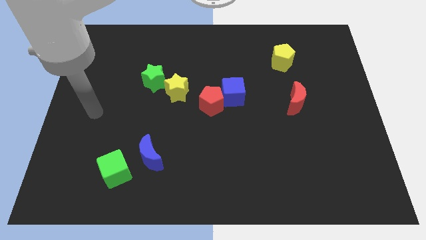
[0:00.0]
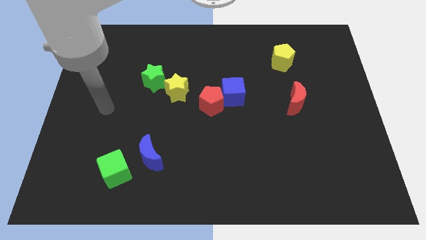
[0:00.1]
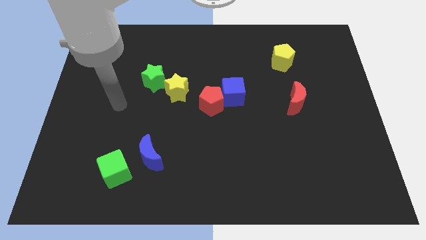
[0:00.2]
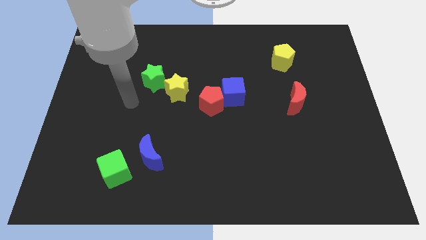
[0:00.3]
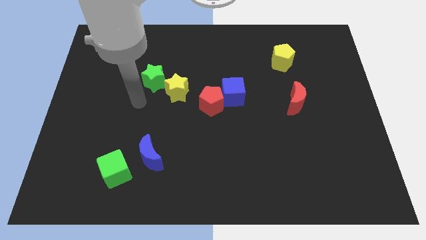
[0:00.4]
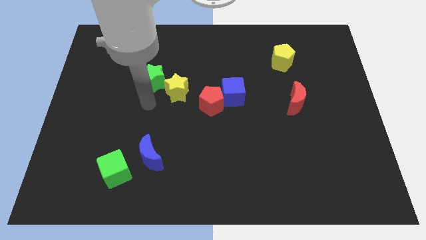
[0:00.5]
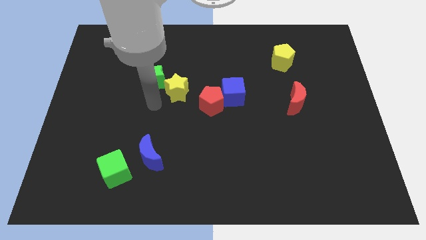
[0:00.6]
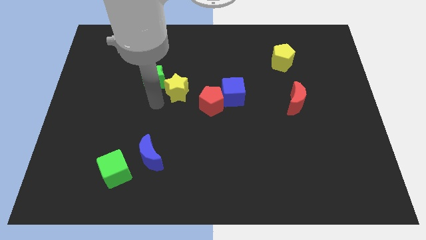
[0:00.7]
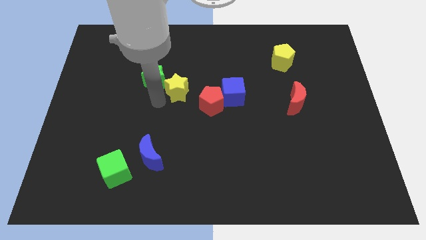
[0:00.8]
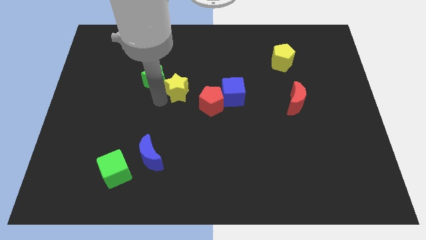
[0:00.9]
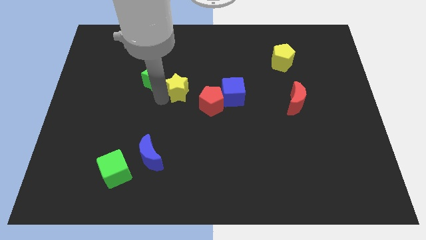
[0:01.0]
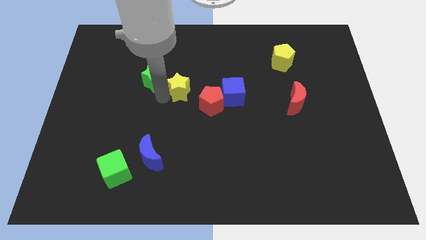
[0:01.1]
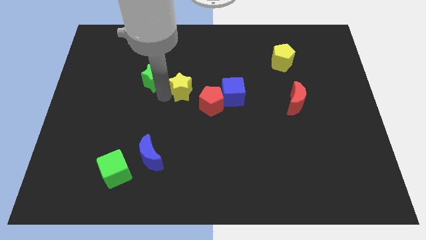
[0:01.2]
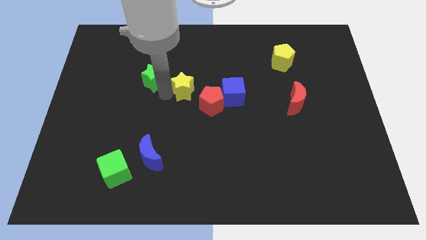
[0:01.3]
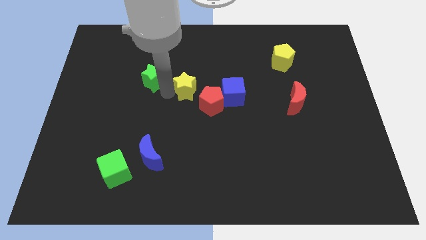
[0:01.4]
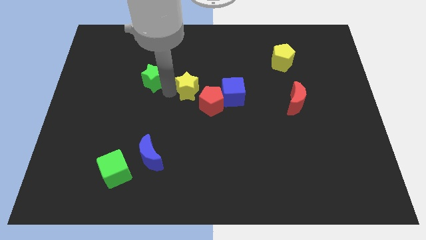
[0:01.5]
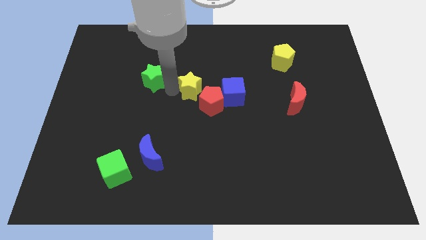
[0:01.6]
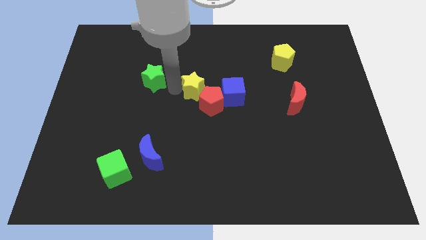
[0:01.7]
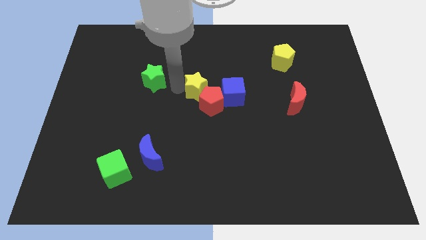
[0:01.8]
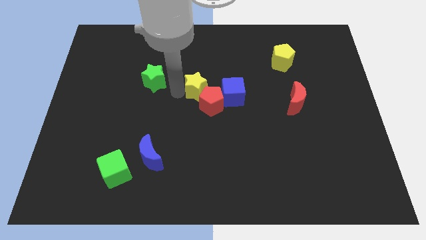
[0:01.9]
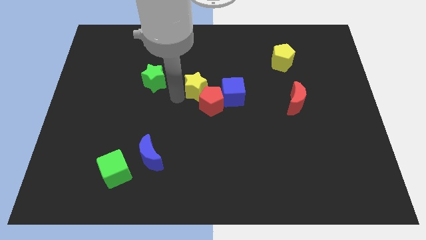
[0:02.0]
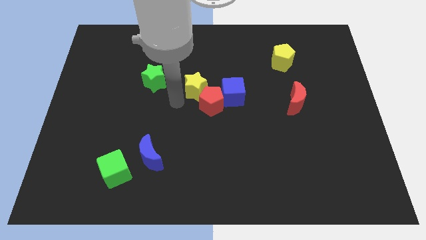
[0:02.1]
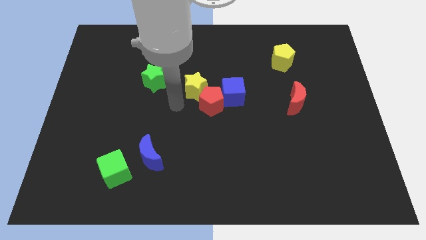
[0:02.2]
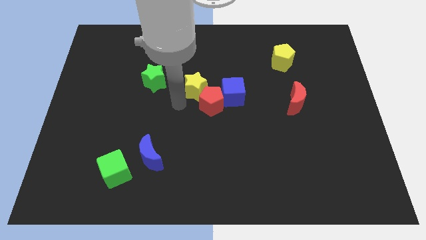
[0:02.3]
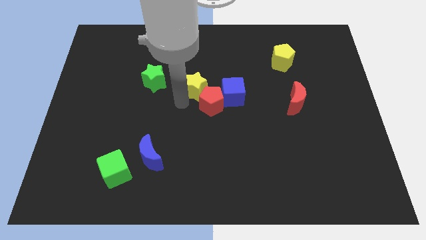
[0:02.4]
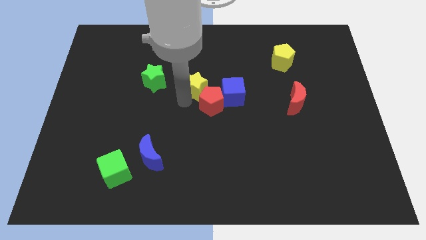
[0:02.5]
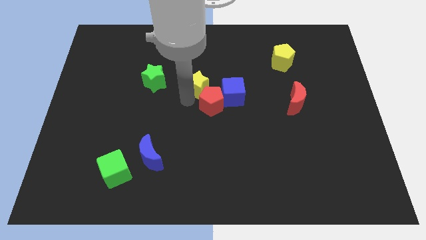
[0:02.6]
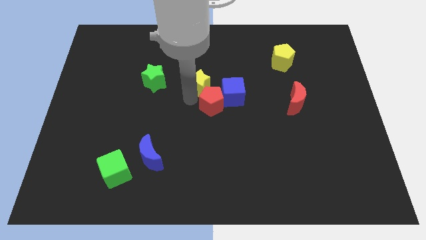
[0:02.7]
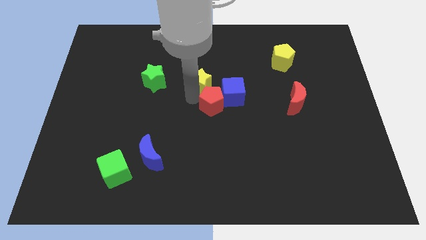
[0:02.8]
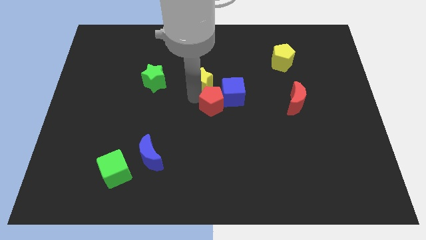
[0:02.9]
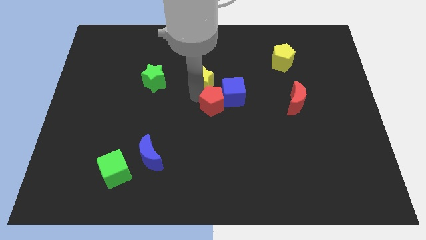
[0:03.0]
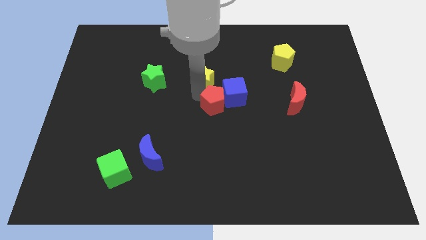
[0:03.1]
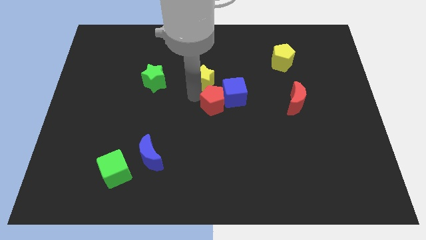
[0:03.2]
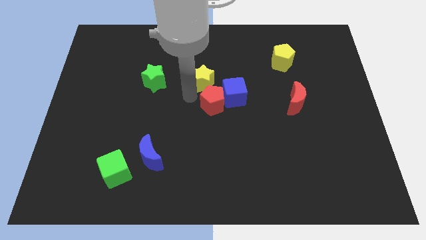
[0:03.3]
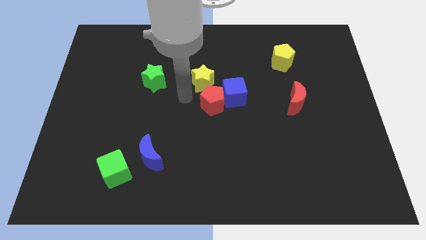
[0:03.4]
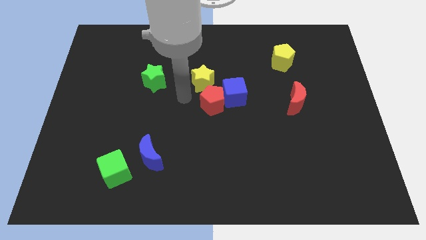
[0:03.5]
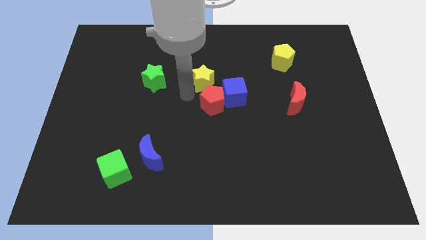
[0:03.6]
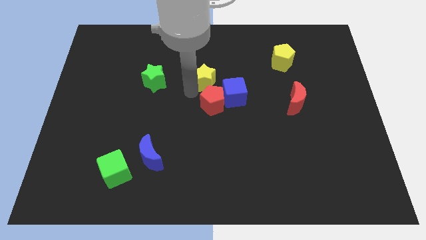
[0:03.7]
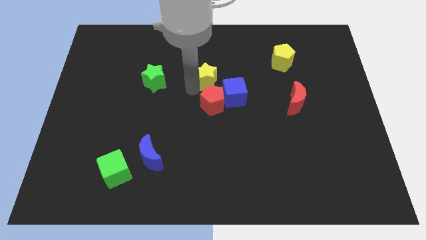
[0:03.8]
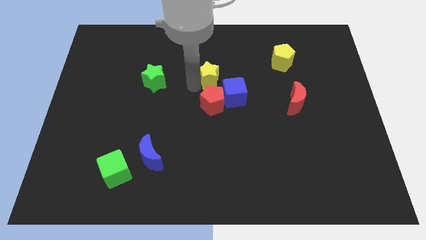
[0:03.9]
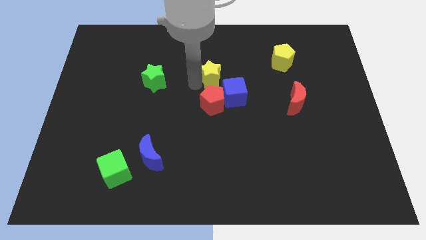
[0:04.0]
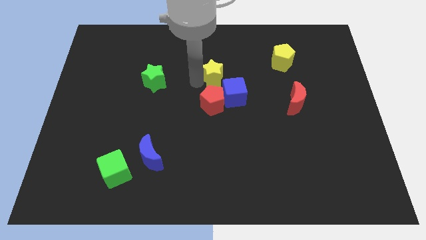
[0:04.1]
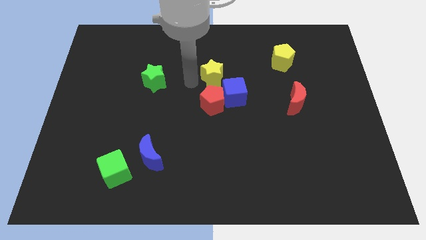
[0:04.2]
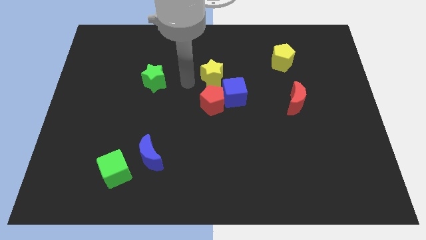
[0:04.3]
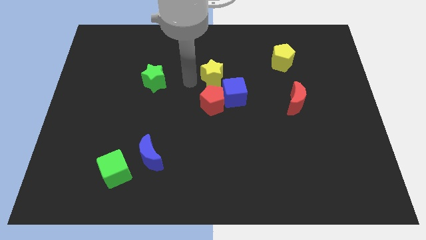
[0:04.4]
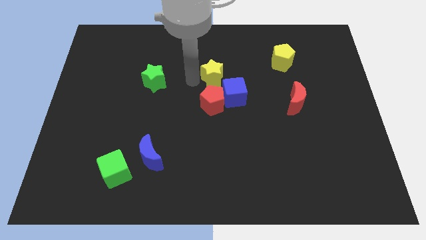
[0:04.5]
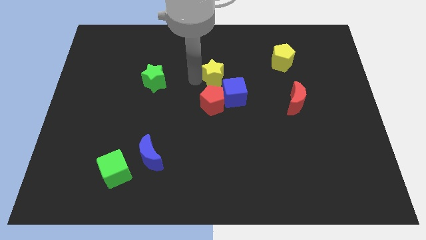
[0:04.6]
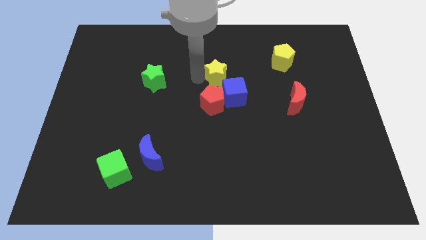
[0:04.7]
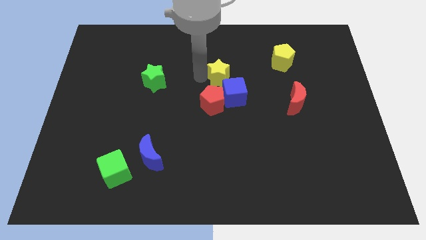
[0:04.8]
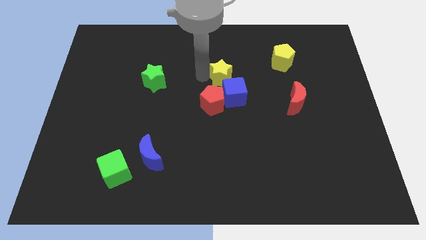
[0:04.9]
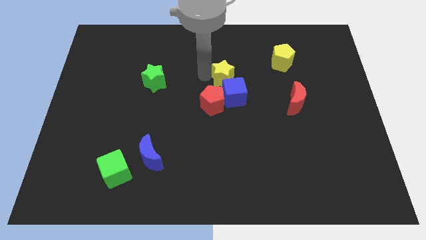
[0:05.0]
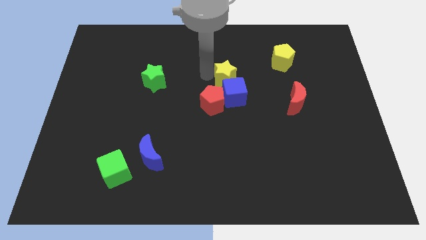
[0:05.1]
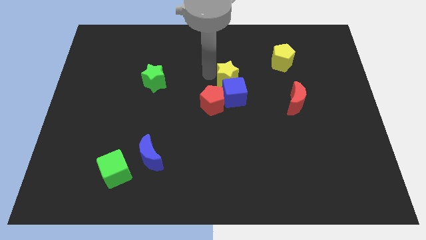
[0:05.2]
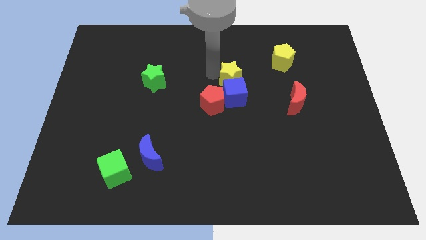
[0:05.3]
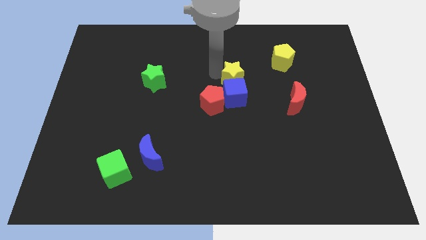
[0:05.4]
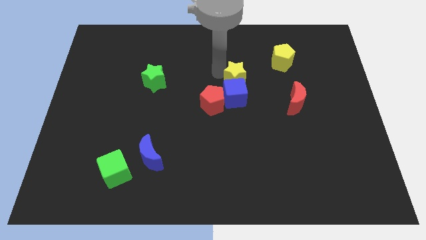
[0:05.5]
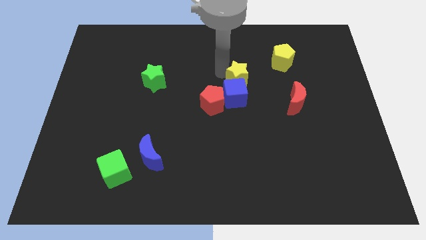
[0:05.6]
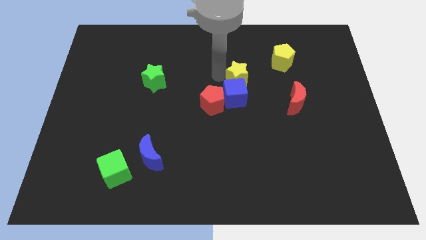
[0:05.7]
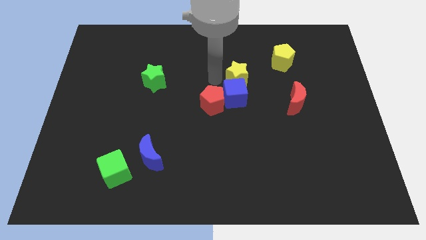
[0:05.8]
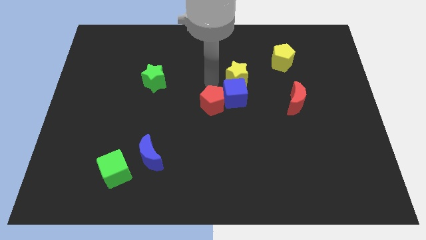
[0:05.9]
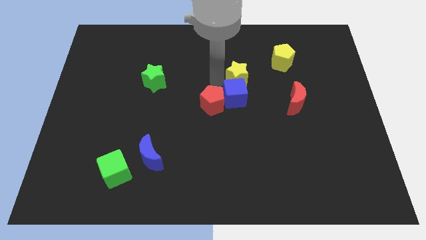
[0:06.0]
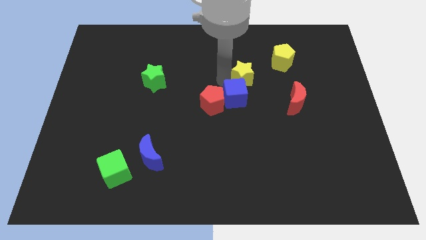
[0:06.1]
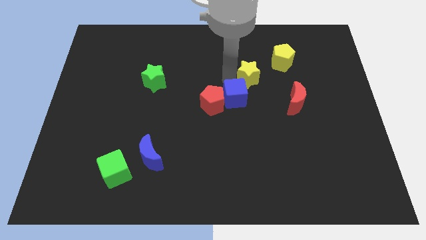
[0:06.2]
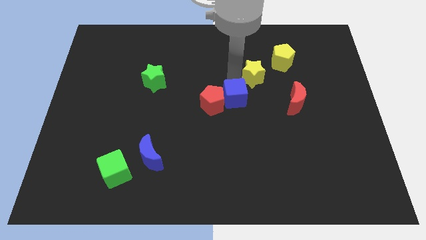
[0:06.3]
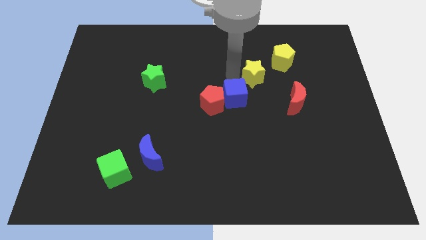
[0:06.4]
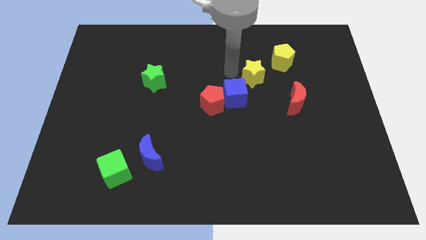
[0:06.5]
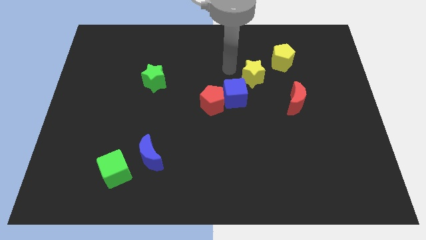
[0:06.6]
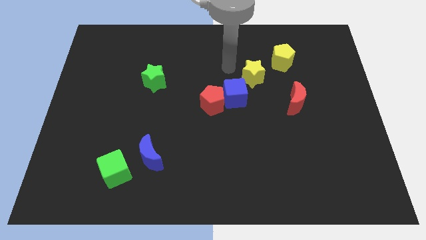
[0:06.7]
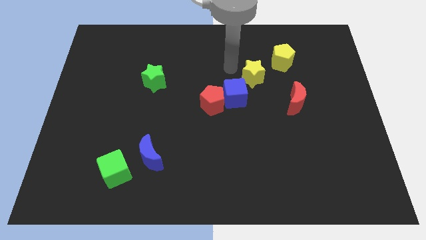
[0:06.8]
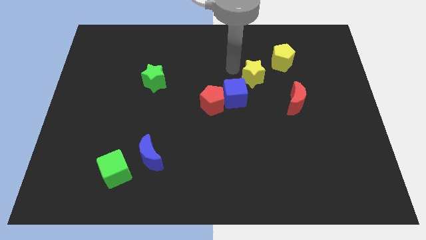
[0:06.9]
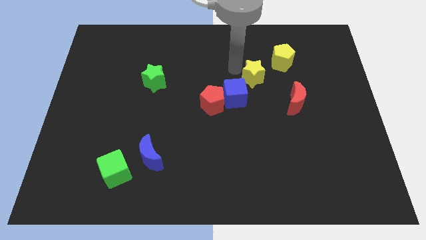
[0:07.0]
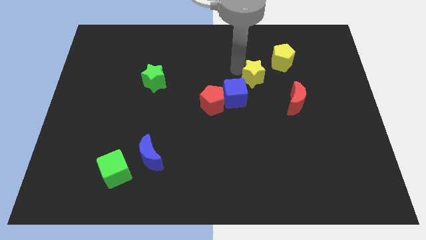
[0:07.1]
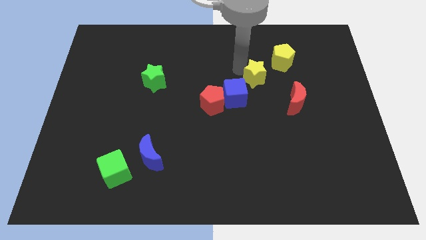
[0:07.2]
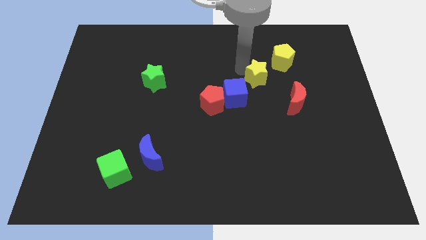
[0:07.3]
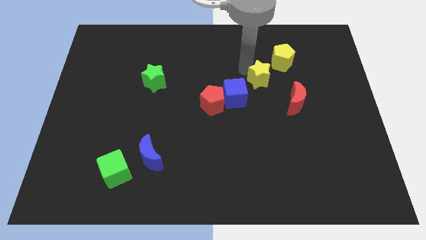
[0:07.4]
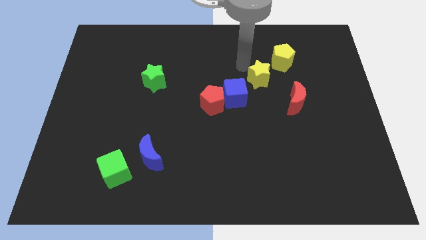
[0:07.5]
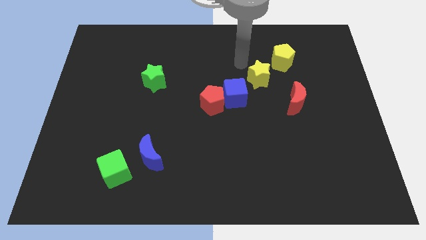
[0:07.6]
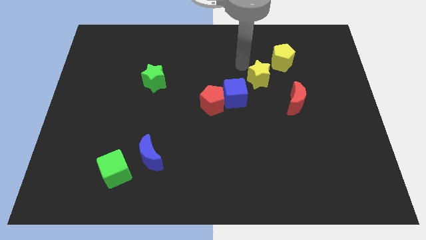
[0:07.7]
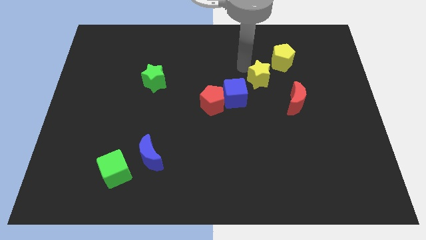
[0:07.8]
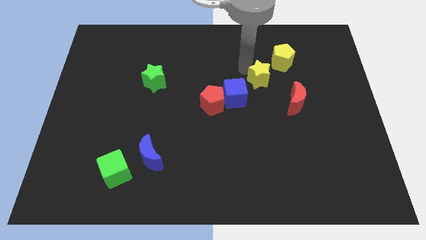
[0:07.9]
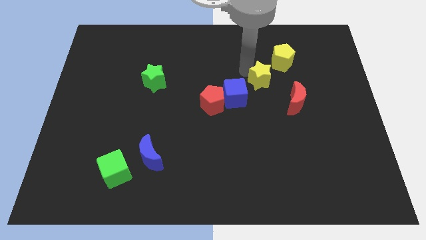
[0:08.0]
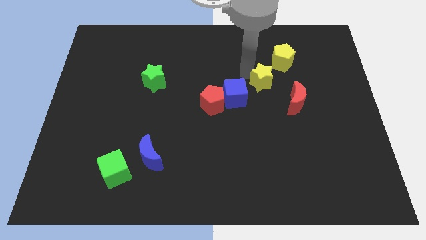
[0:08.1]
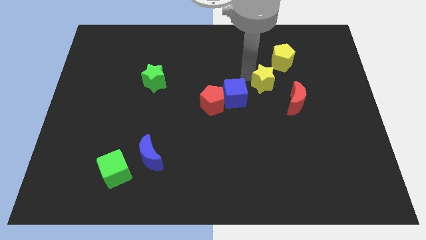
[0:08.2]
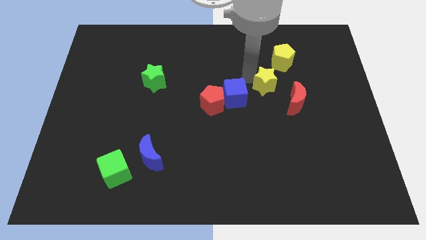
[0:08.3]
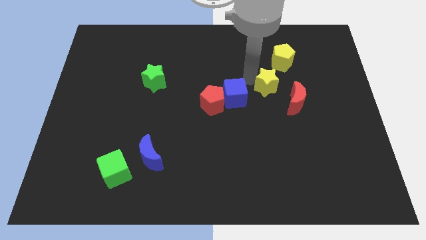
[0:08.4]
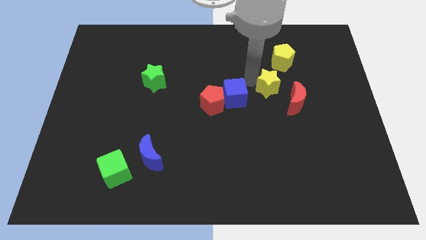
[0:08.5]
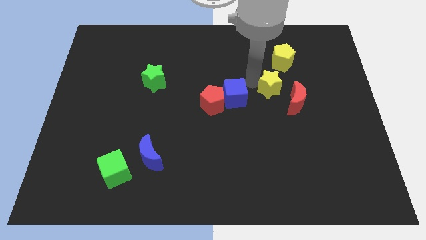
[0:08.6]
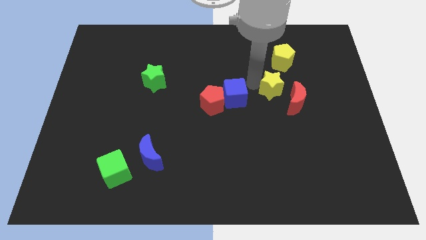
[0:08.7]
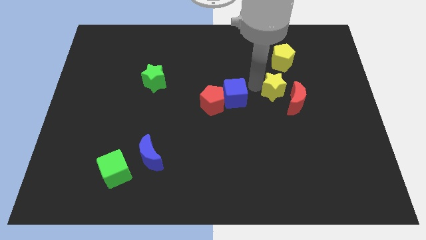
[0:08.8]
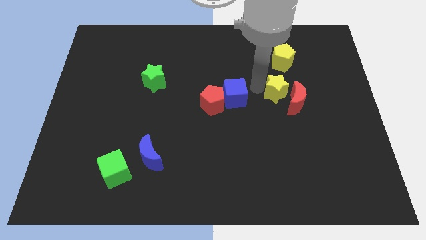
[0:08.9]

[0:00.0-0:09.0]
slide the yellow star next to the red moon
